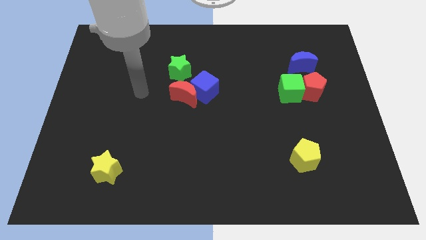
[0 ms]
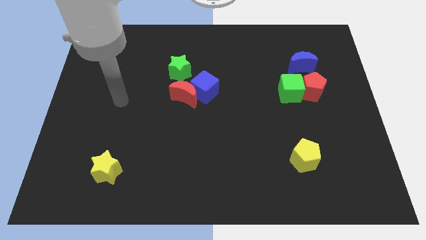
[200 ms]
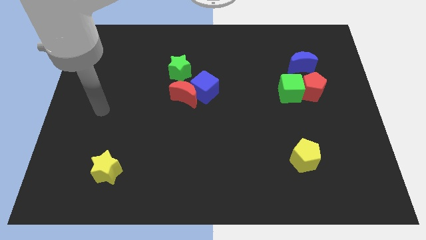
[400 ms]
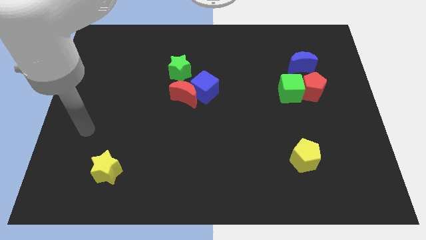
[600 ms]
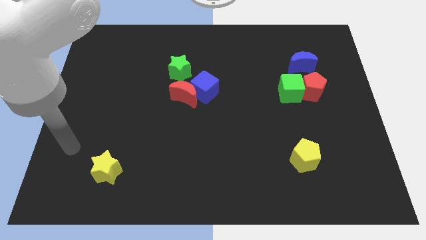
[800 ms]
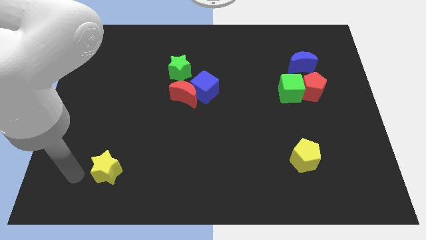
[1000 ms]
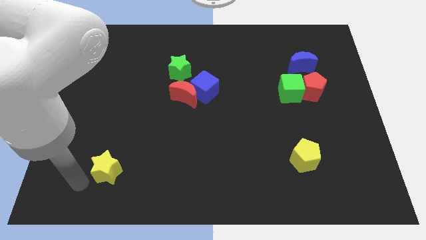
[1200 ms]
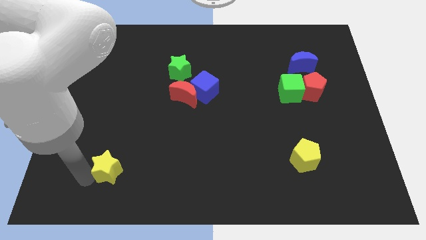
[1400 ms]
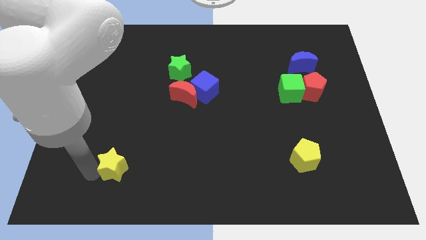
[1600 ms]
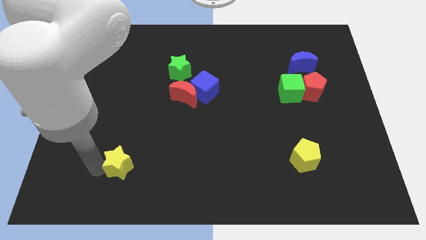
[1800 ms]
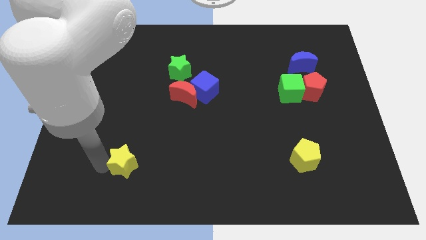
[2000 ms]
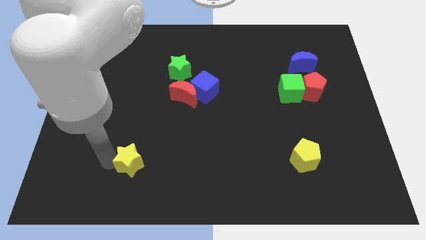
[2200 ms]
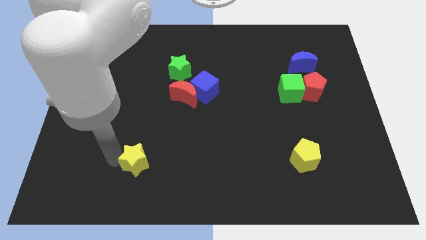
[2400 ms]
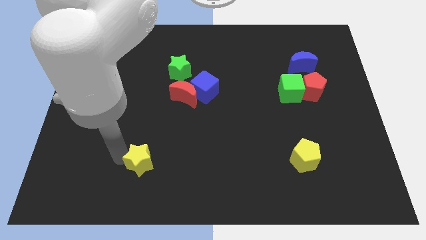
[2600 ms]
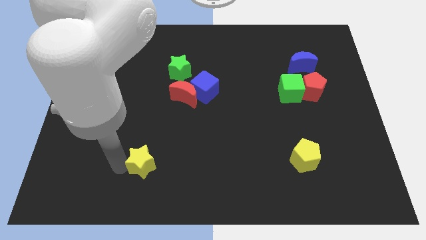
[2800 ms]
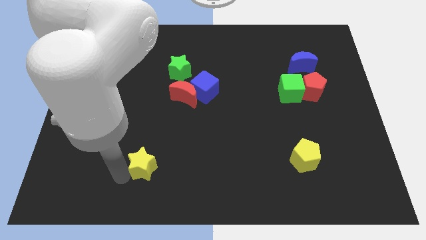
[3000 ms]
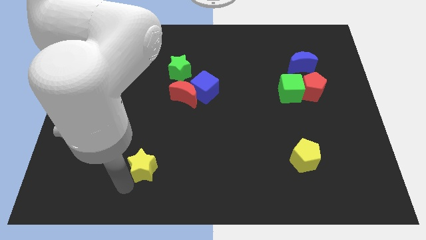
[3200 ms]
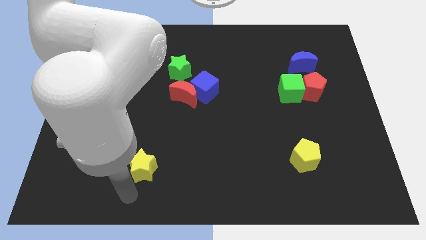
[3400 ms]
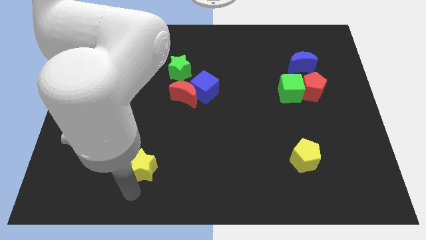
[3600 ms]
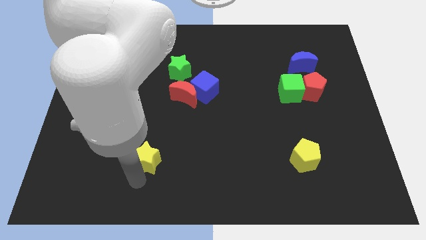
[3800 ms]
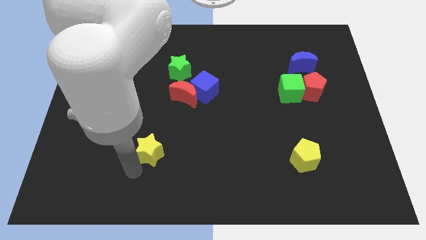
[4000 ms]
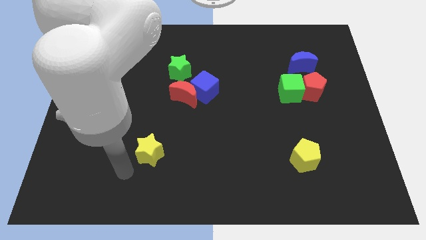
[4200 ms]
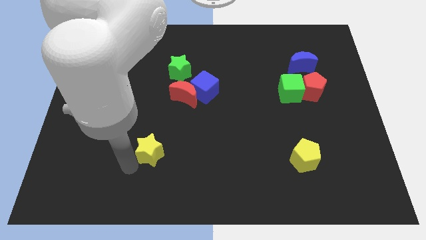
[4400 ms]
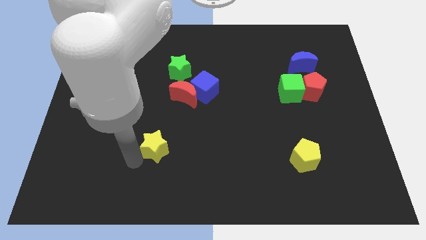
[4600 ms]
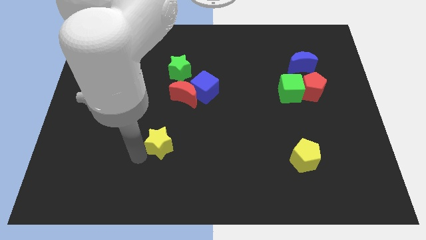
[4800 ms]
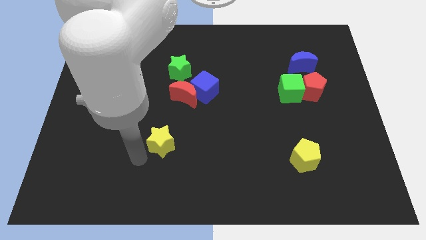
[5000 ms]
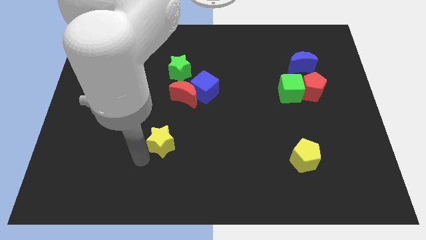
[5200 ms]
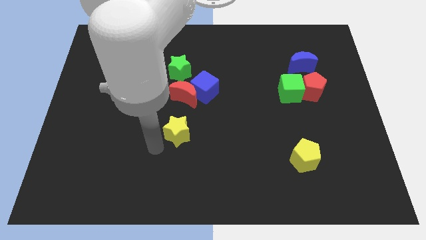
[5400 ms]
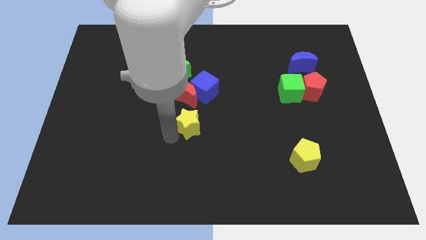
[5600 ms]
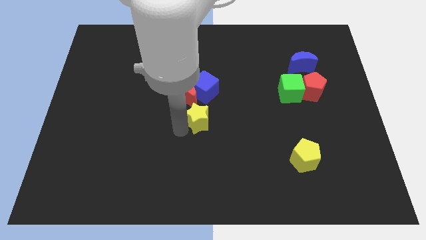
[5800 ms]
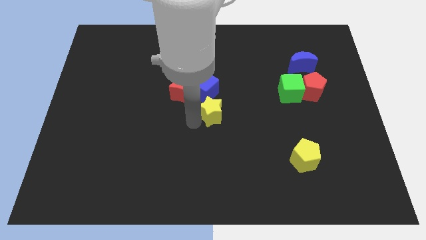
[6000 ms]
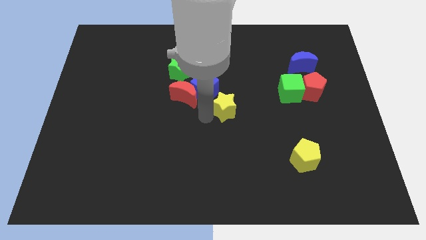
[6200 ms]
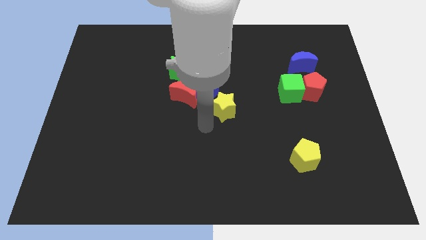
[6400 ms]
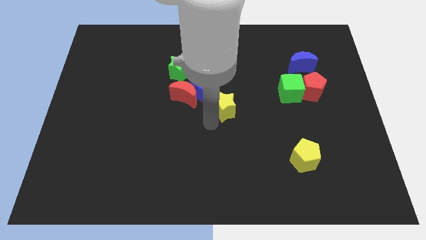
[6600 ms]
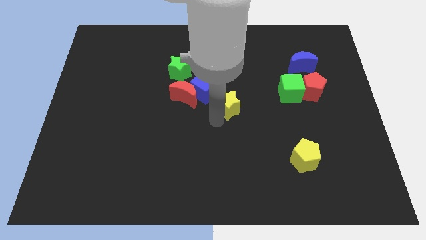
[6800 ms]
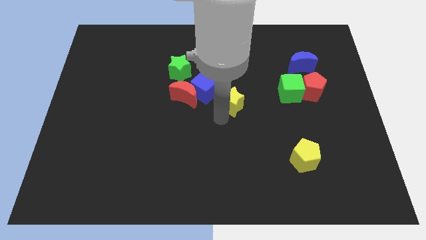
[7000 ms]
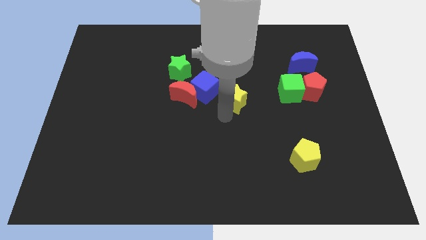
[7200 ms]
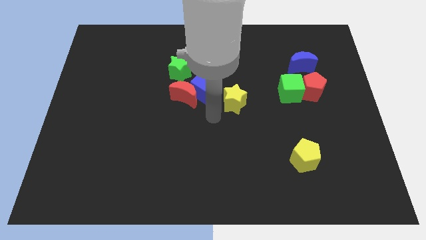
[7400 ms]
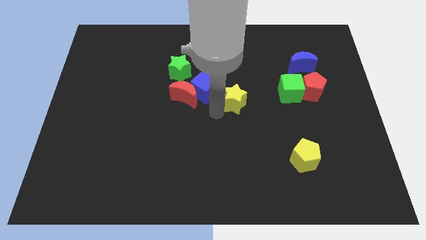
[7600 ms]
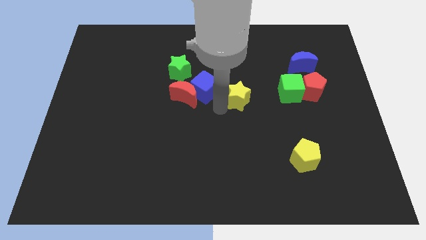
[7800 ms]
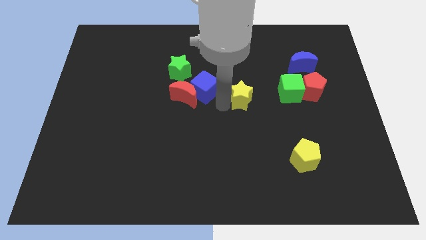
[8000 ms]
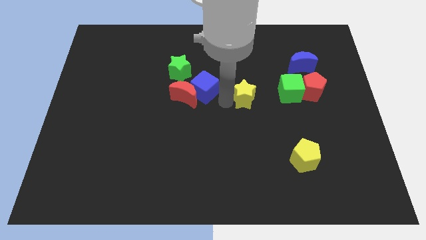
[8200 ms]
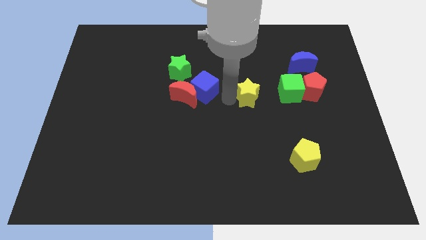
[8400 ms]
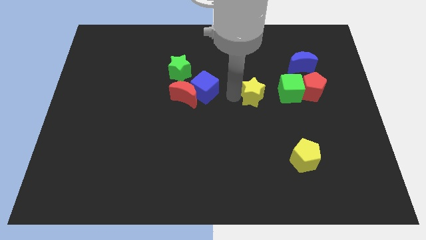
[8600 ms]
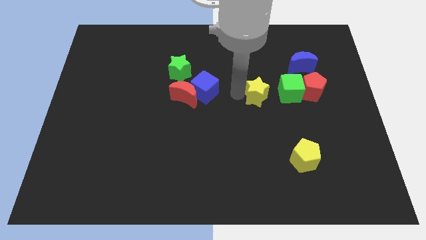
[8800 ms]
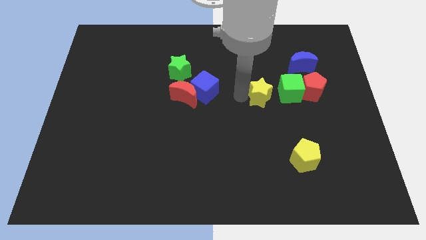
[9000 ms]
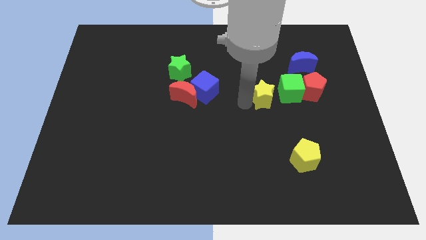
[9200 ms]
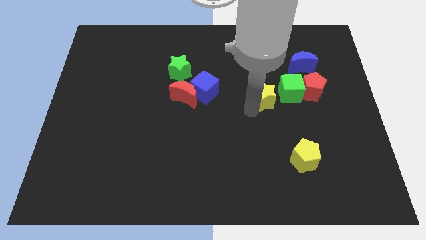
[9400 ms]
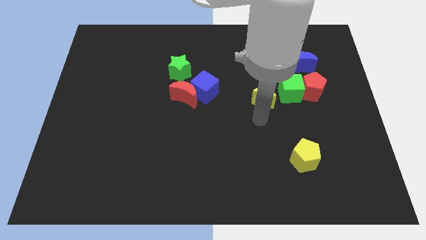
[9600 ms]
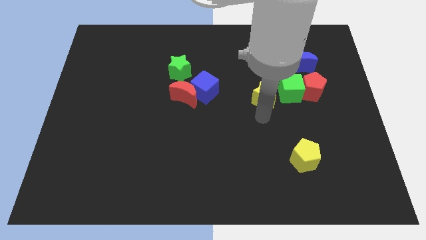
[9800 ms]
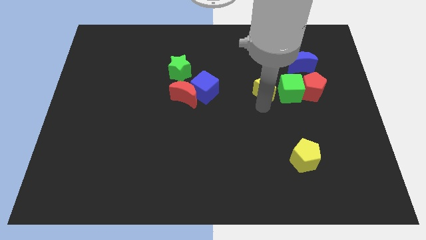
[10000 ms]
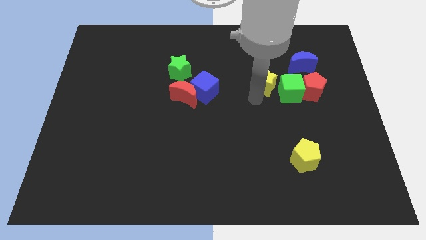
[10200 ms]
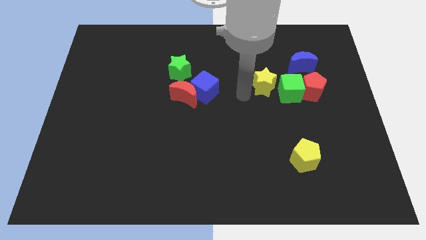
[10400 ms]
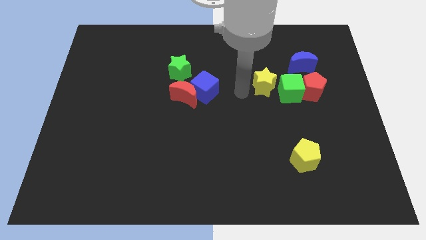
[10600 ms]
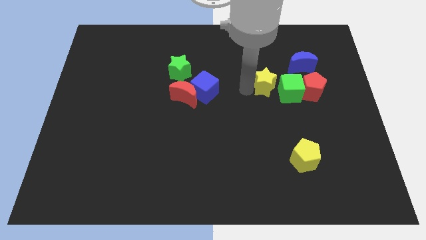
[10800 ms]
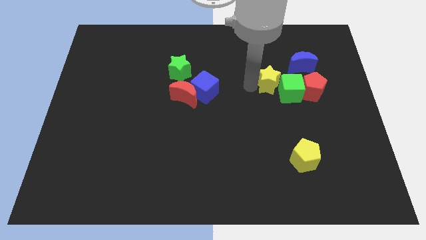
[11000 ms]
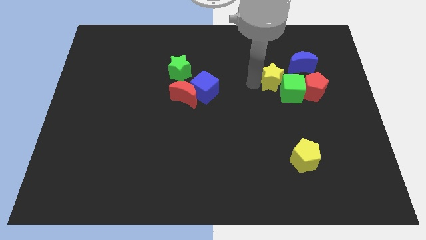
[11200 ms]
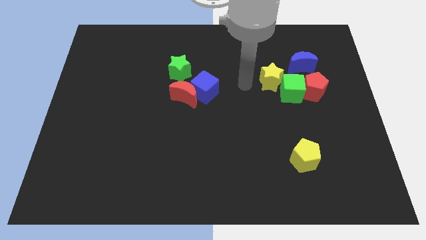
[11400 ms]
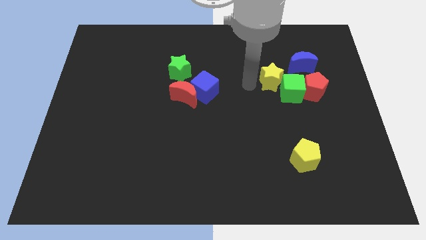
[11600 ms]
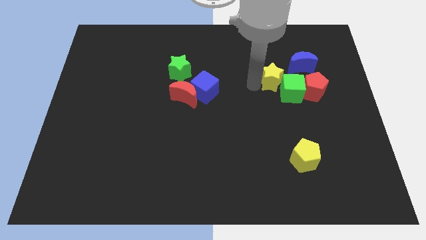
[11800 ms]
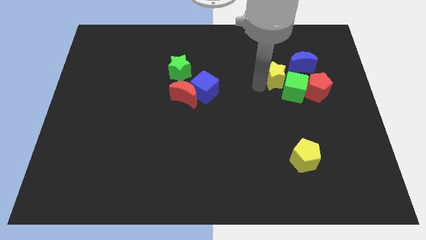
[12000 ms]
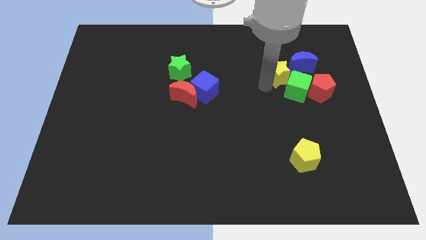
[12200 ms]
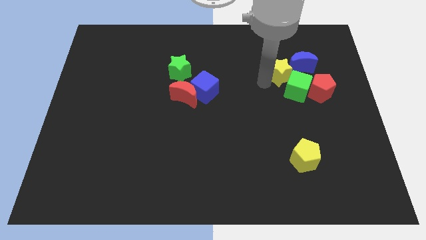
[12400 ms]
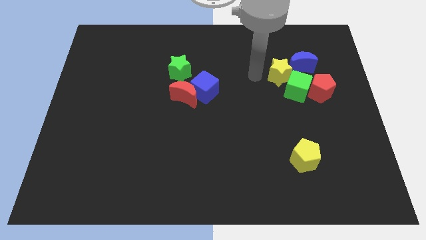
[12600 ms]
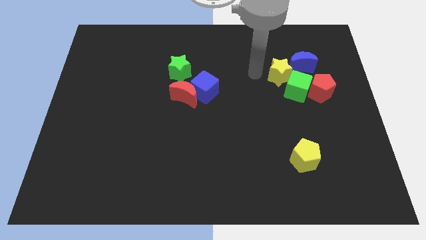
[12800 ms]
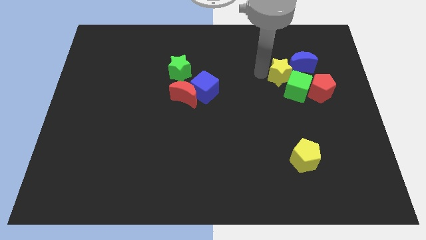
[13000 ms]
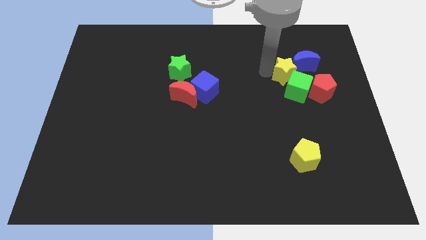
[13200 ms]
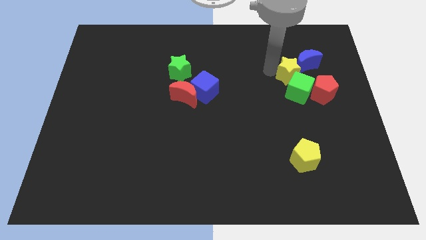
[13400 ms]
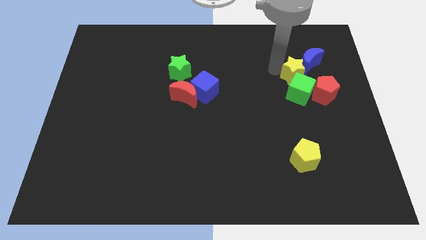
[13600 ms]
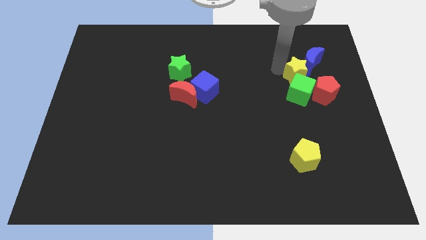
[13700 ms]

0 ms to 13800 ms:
slide the yellow star diagonally up and to the right of the green cube
